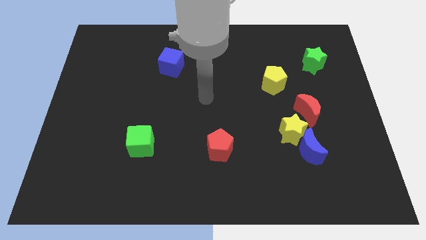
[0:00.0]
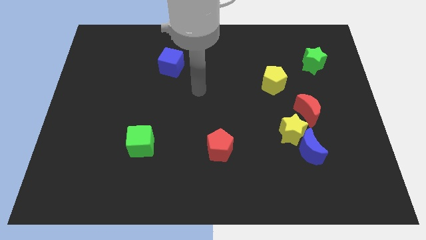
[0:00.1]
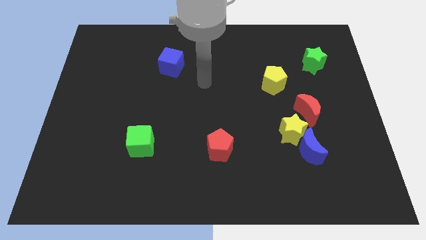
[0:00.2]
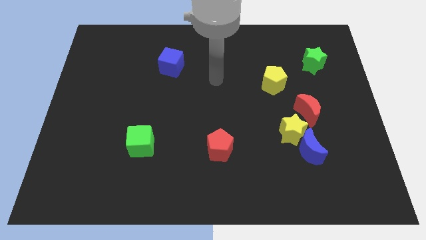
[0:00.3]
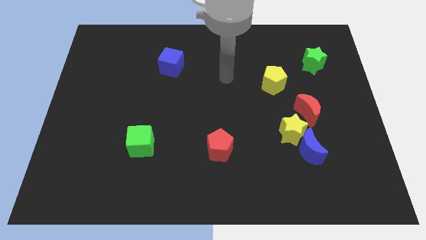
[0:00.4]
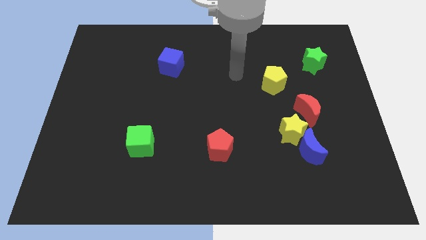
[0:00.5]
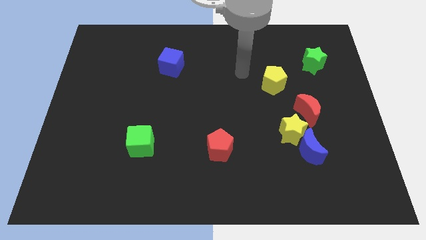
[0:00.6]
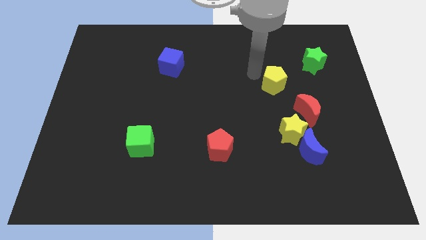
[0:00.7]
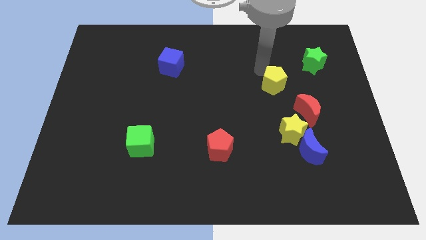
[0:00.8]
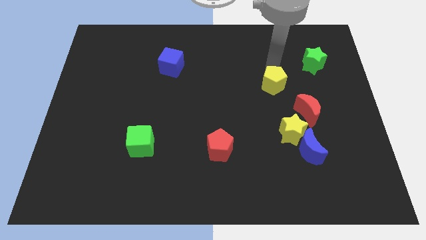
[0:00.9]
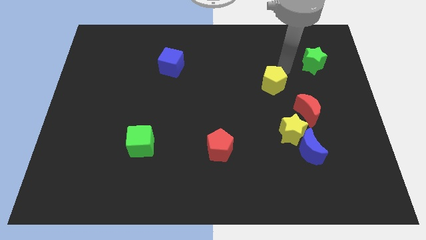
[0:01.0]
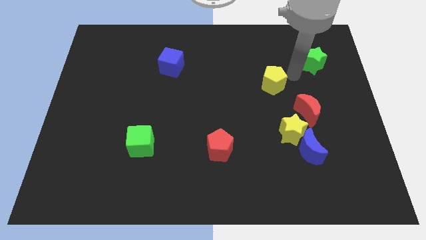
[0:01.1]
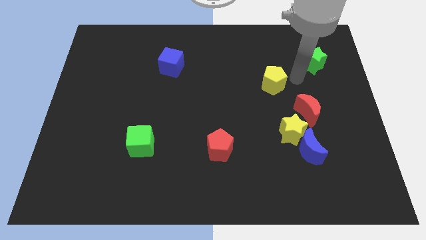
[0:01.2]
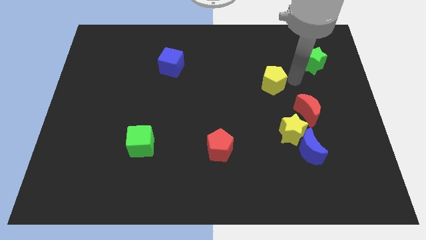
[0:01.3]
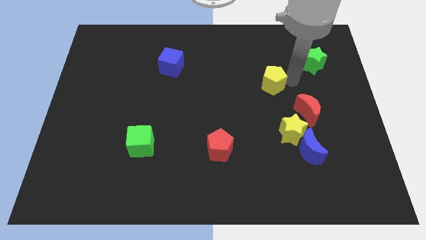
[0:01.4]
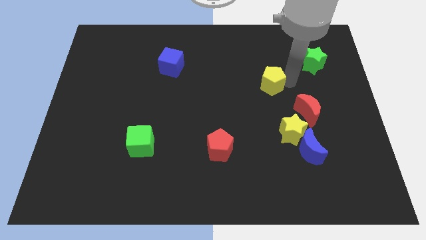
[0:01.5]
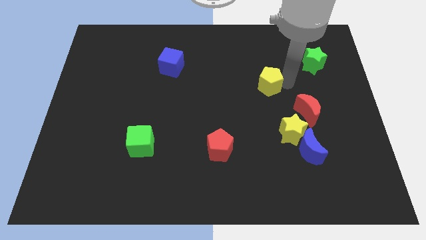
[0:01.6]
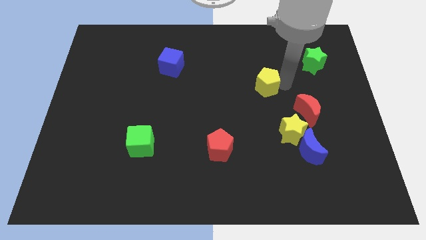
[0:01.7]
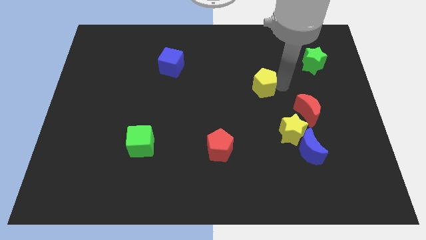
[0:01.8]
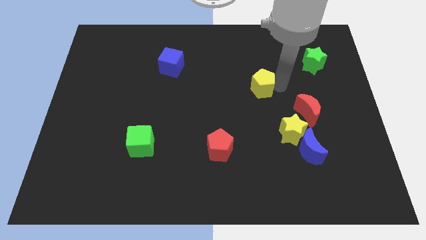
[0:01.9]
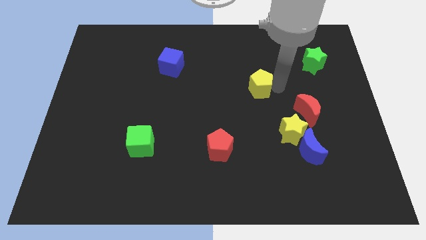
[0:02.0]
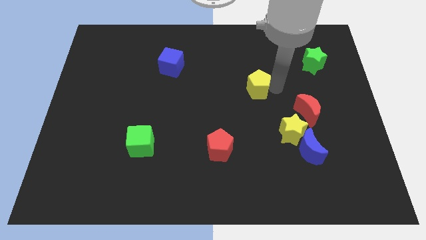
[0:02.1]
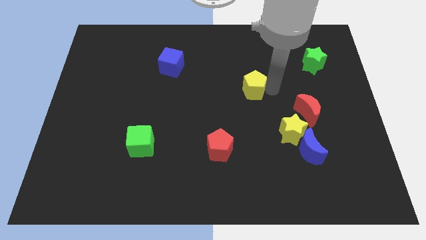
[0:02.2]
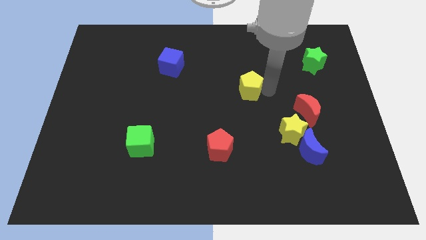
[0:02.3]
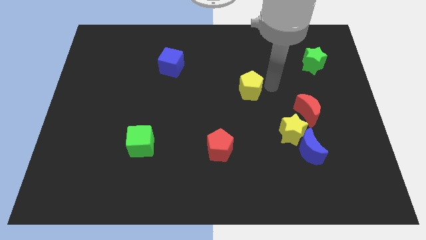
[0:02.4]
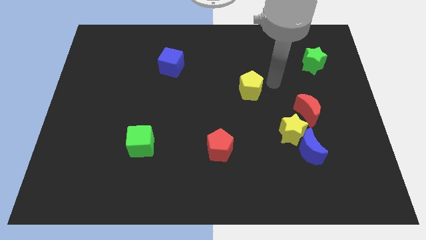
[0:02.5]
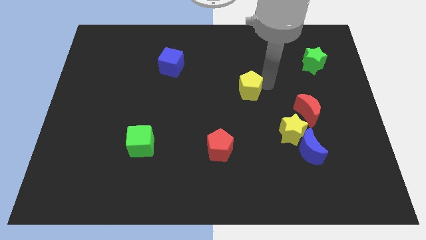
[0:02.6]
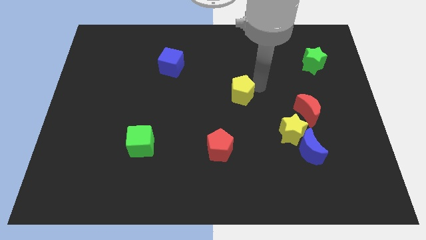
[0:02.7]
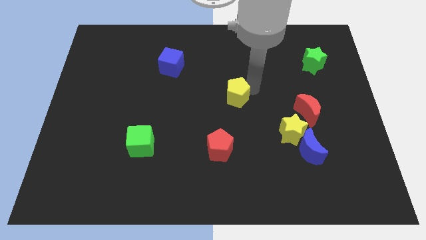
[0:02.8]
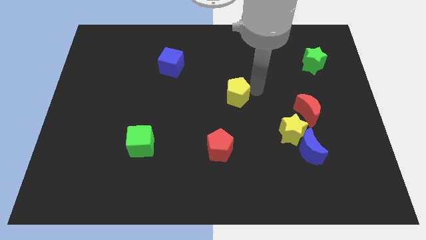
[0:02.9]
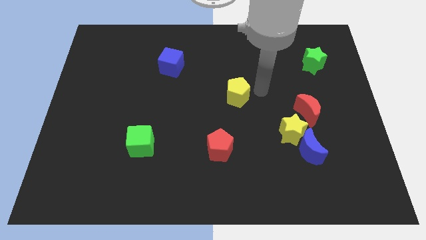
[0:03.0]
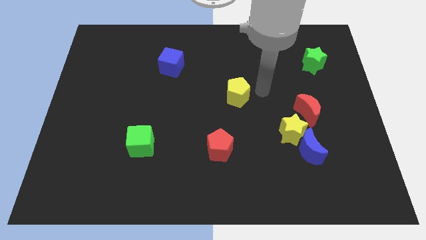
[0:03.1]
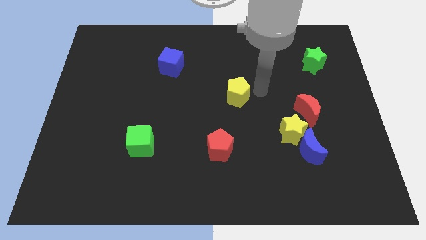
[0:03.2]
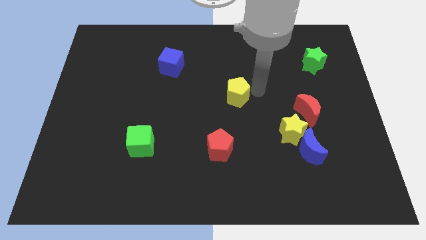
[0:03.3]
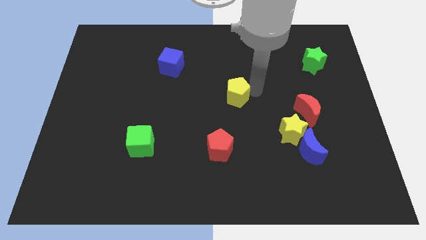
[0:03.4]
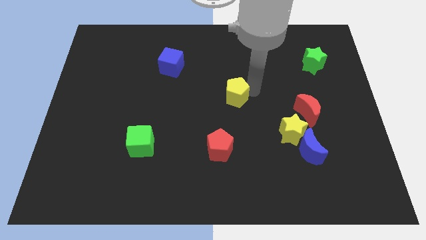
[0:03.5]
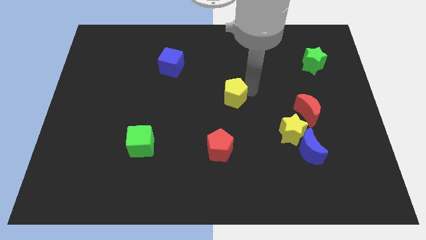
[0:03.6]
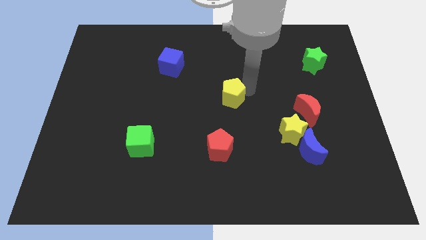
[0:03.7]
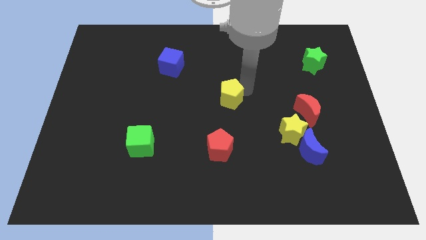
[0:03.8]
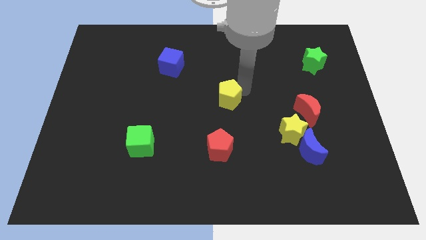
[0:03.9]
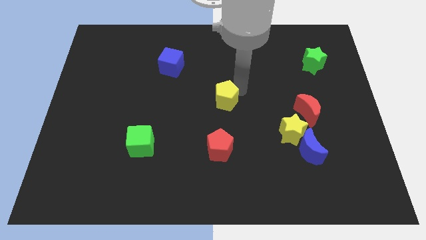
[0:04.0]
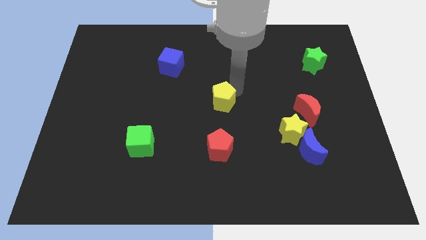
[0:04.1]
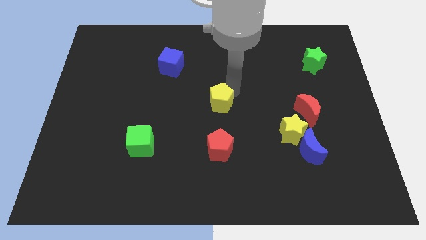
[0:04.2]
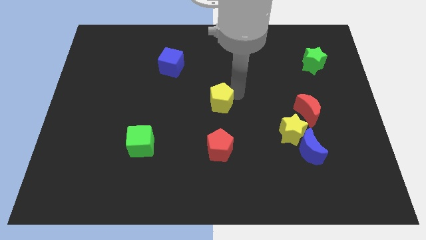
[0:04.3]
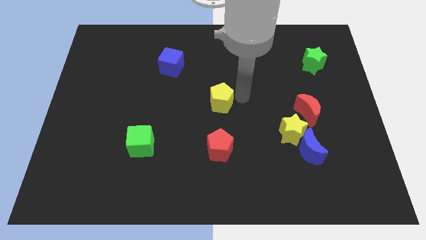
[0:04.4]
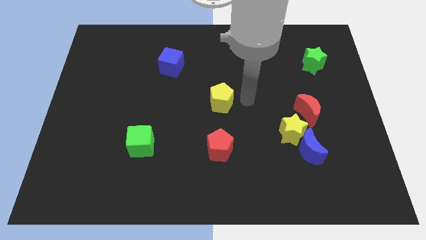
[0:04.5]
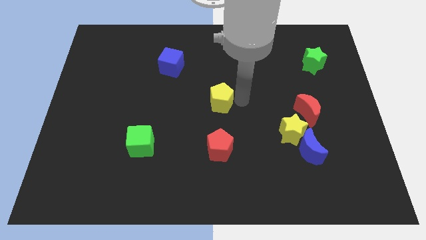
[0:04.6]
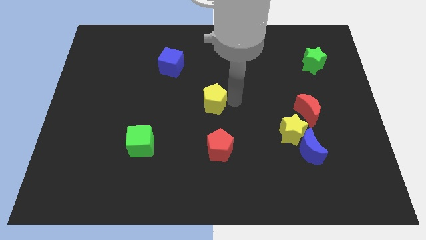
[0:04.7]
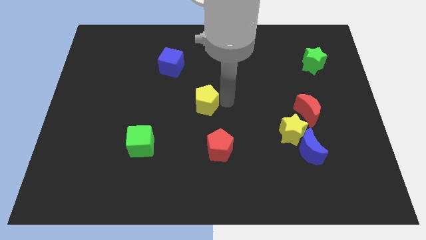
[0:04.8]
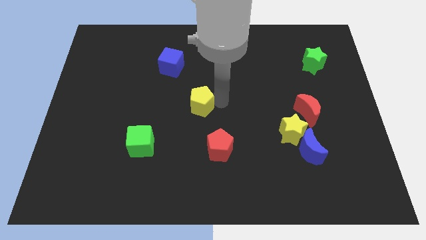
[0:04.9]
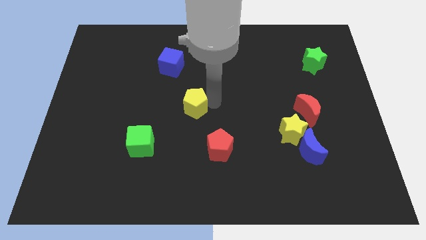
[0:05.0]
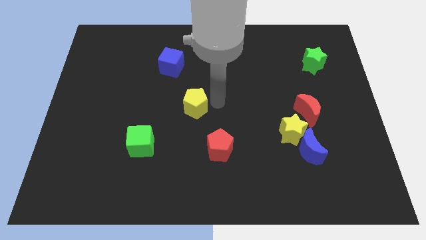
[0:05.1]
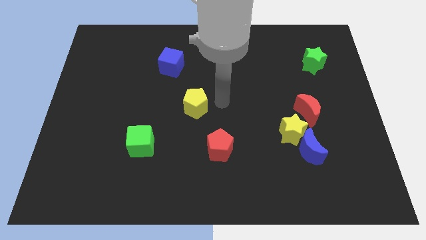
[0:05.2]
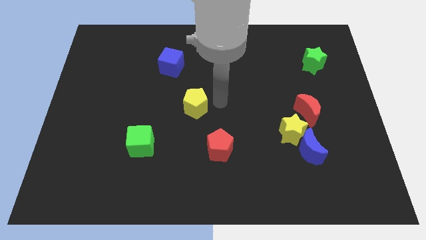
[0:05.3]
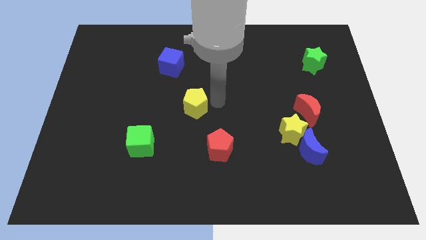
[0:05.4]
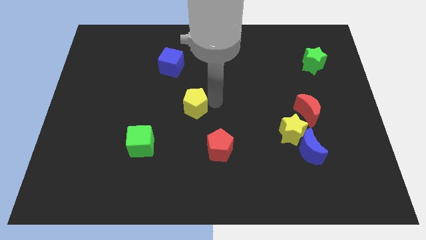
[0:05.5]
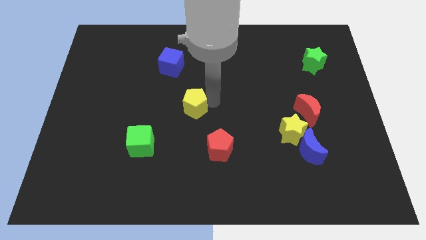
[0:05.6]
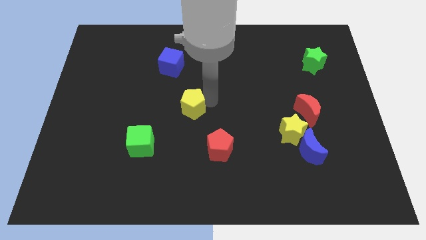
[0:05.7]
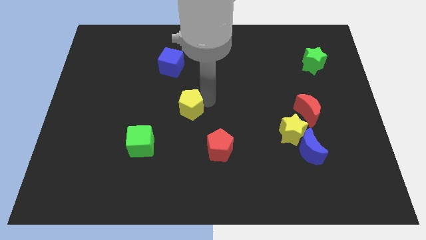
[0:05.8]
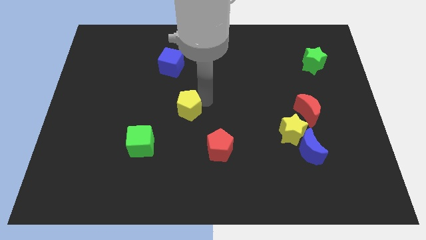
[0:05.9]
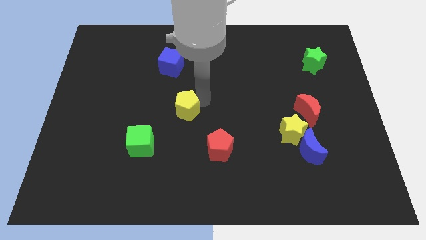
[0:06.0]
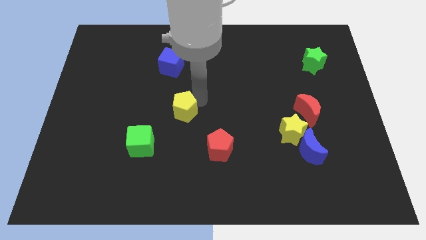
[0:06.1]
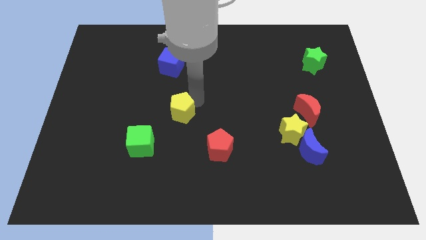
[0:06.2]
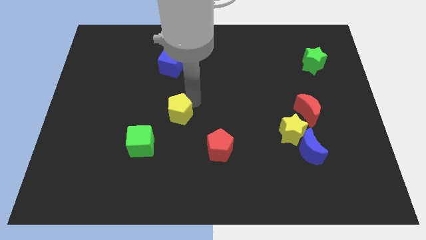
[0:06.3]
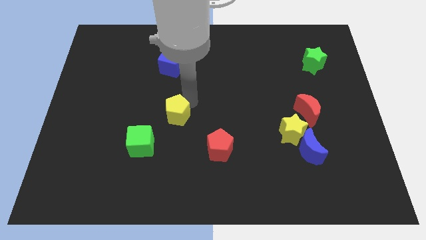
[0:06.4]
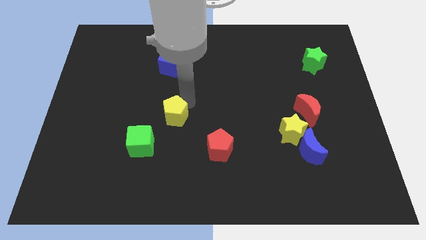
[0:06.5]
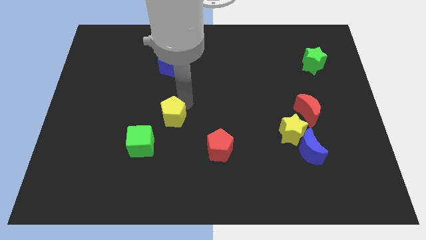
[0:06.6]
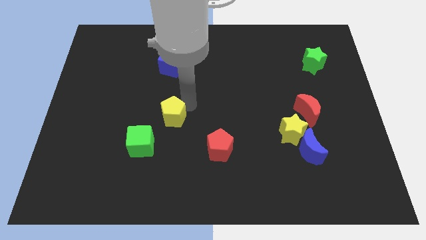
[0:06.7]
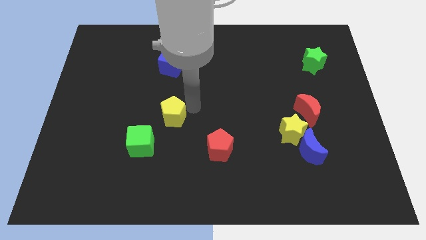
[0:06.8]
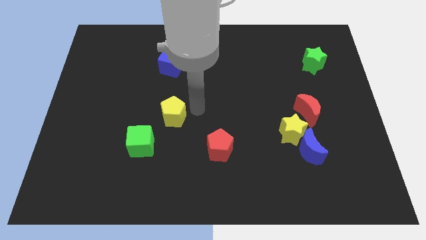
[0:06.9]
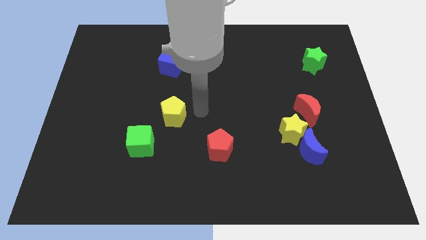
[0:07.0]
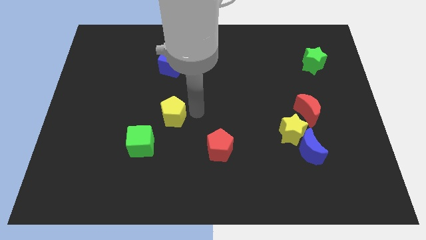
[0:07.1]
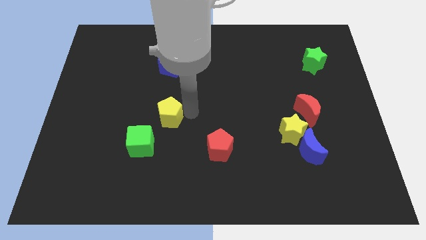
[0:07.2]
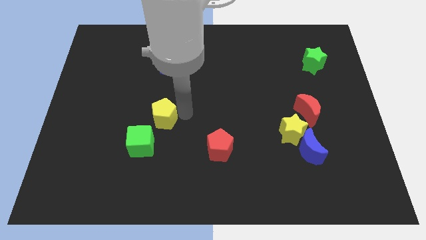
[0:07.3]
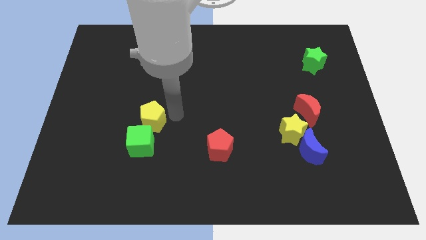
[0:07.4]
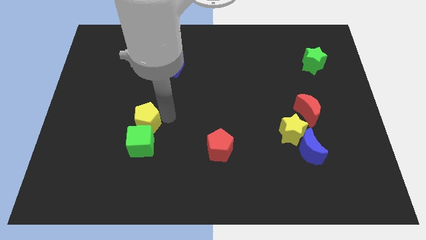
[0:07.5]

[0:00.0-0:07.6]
put the yellow pentagon to the top left side of the green cube
